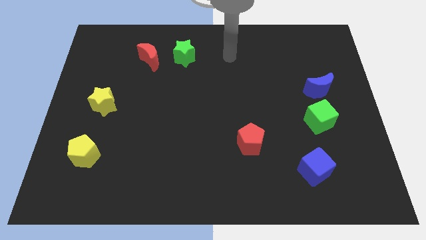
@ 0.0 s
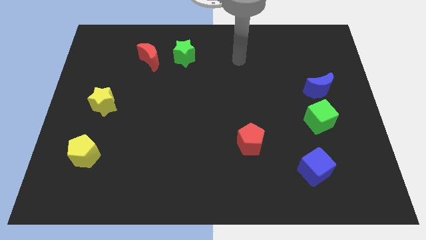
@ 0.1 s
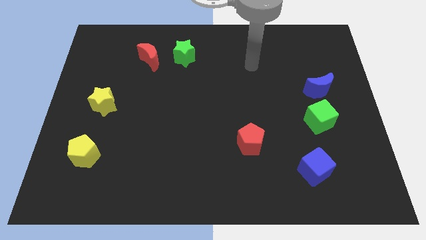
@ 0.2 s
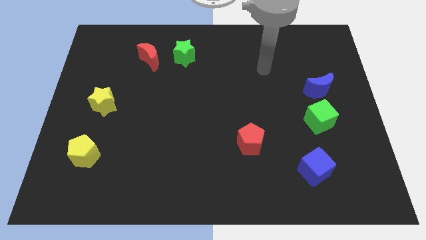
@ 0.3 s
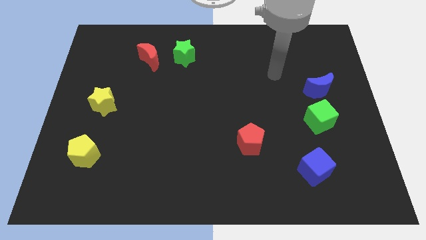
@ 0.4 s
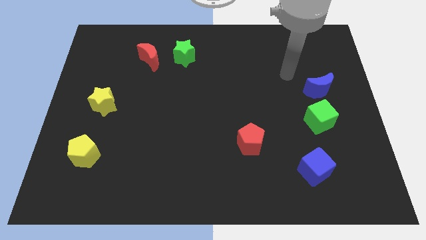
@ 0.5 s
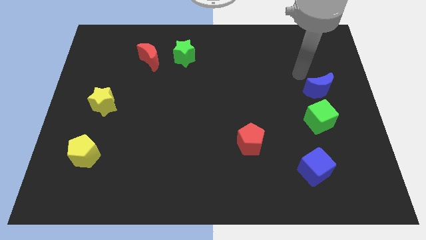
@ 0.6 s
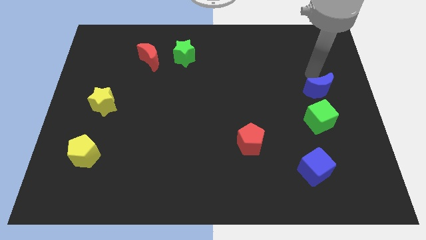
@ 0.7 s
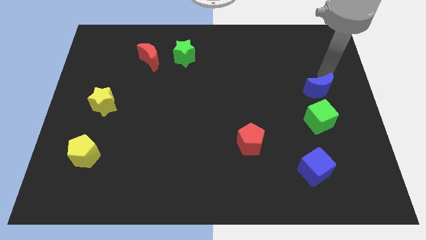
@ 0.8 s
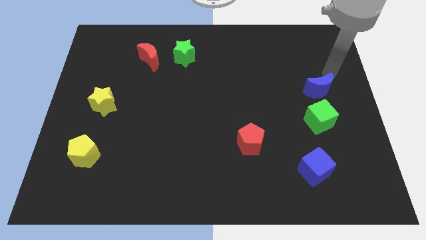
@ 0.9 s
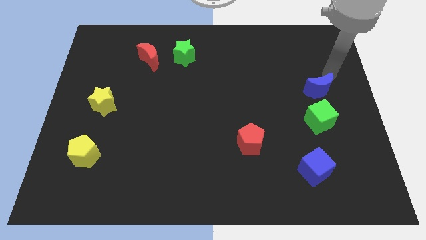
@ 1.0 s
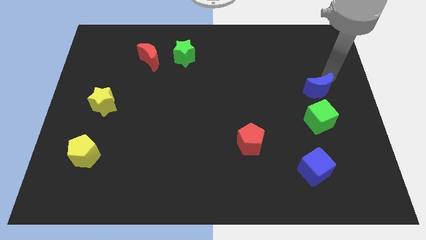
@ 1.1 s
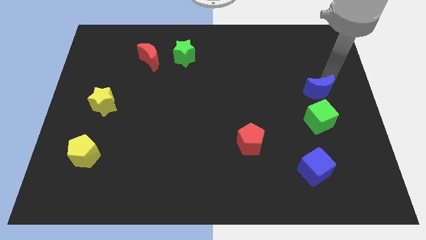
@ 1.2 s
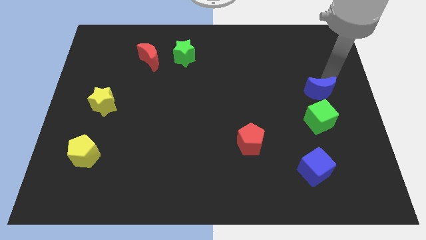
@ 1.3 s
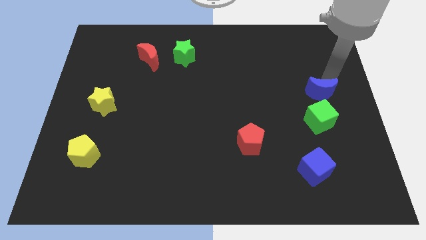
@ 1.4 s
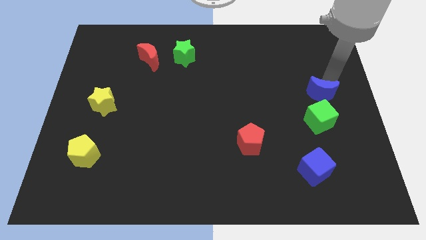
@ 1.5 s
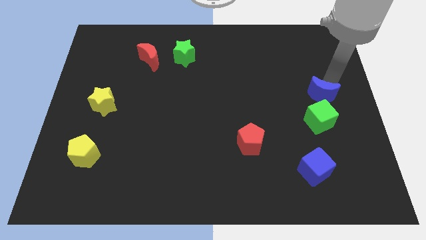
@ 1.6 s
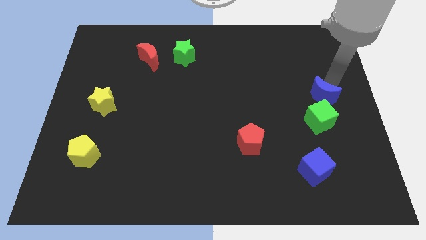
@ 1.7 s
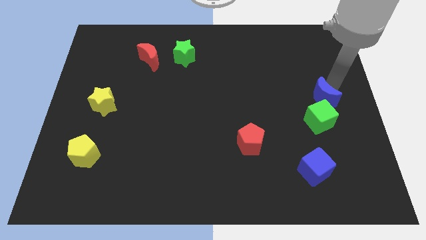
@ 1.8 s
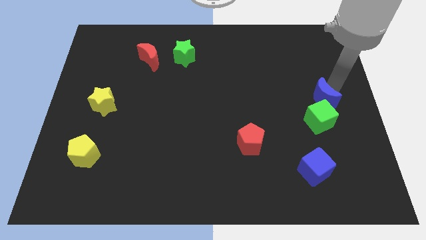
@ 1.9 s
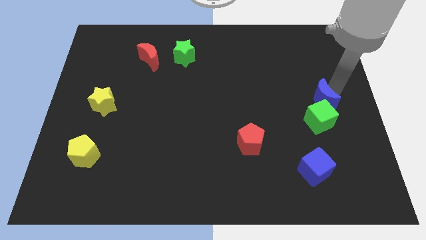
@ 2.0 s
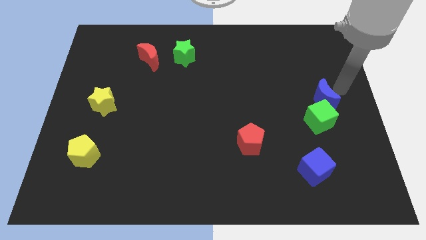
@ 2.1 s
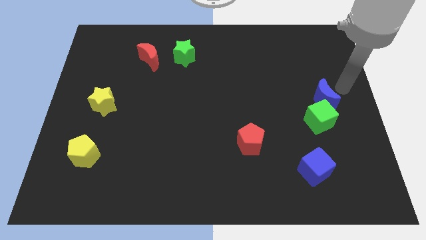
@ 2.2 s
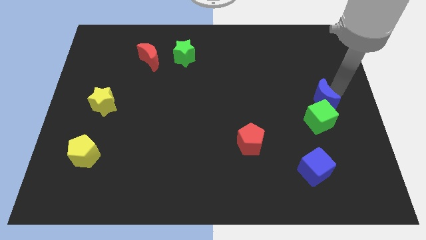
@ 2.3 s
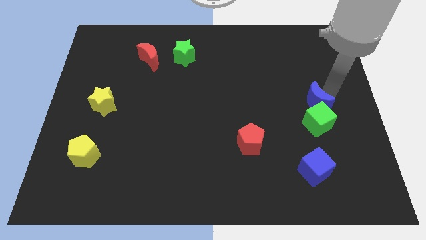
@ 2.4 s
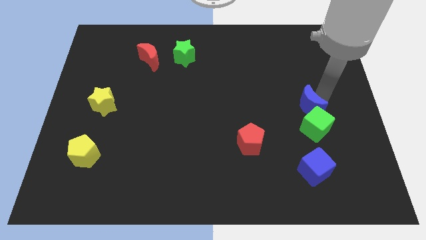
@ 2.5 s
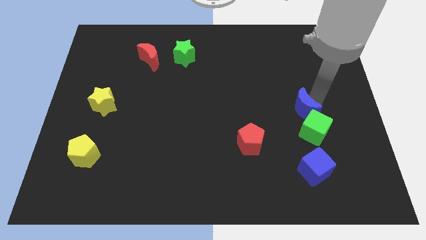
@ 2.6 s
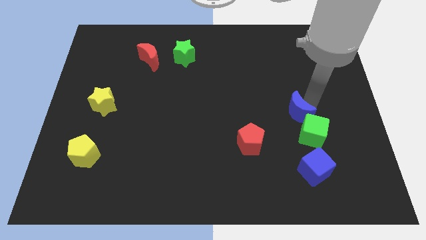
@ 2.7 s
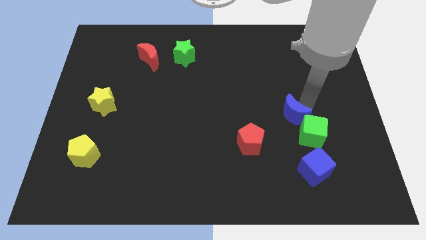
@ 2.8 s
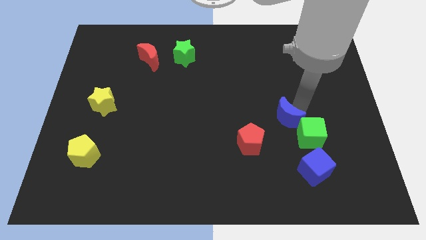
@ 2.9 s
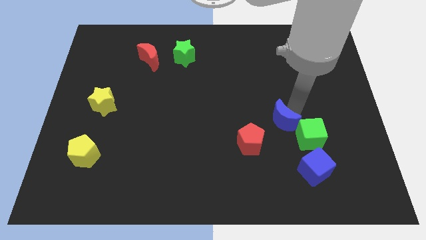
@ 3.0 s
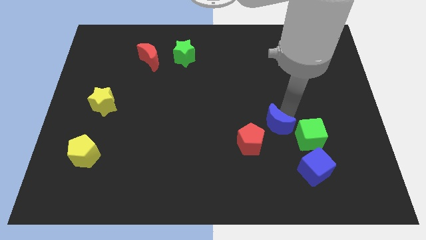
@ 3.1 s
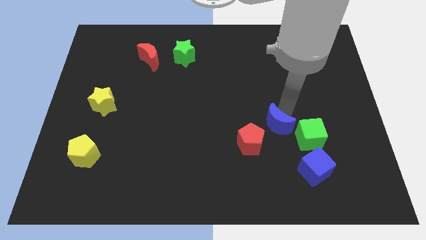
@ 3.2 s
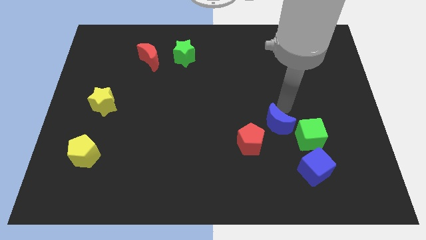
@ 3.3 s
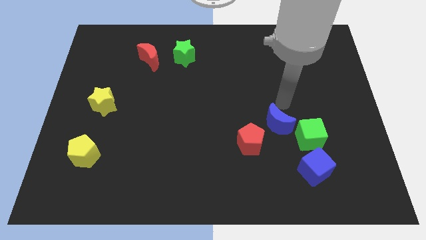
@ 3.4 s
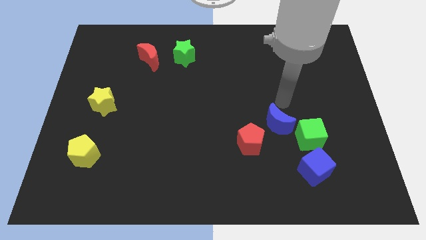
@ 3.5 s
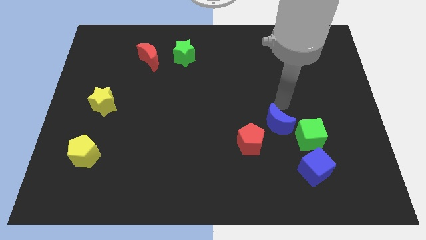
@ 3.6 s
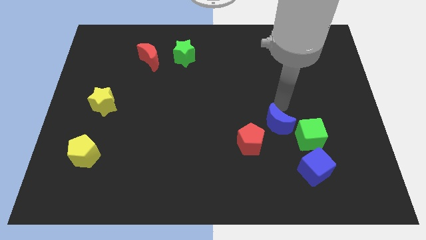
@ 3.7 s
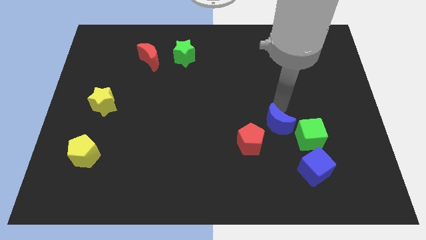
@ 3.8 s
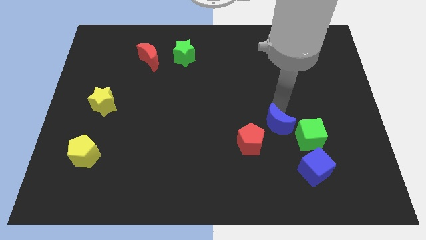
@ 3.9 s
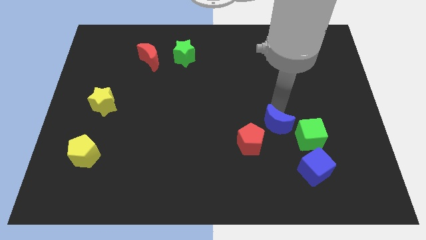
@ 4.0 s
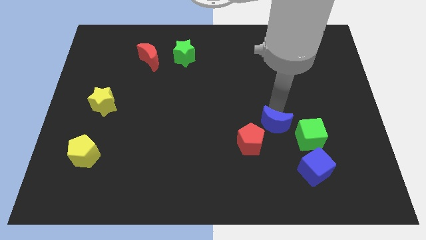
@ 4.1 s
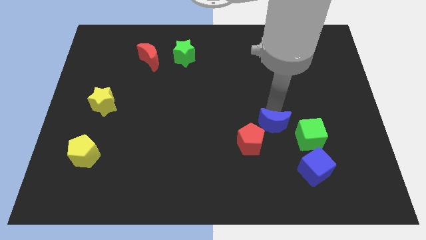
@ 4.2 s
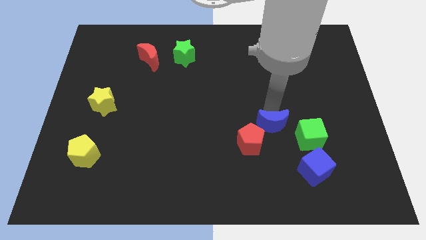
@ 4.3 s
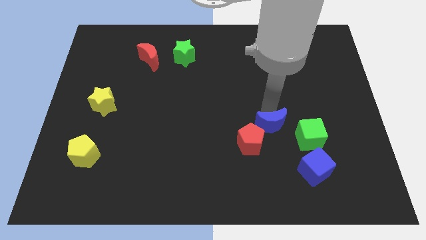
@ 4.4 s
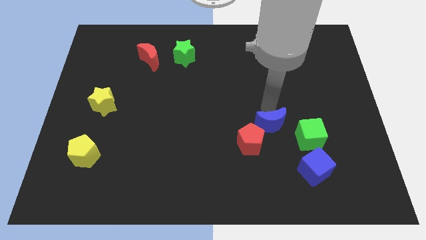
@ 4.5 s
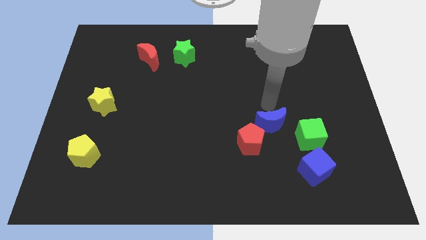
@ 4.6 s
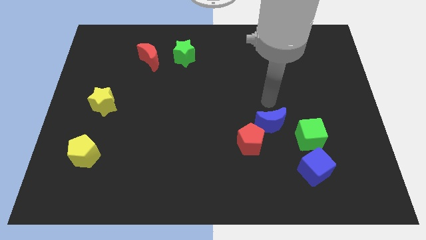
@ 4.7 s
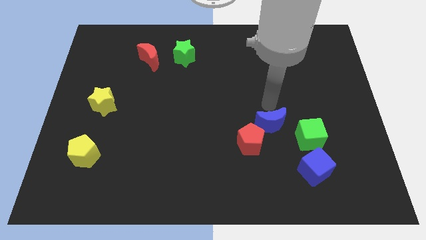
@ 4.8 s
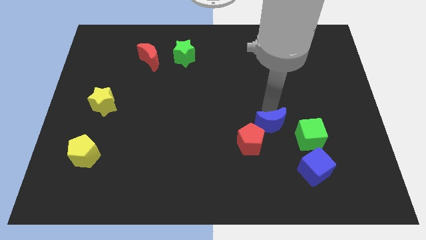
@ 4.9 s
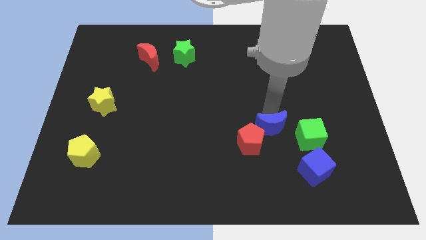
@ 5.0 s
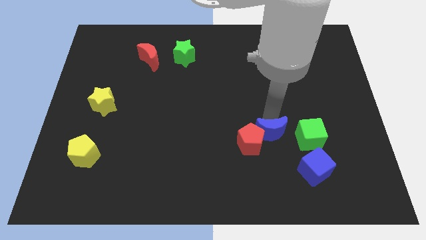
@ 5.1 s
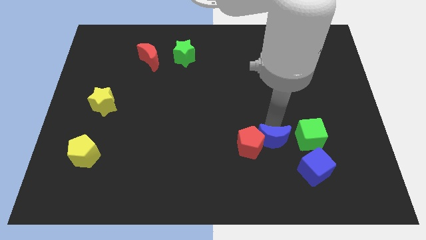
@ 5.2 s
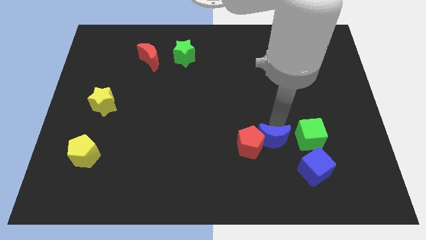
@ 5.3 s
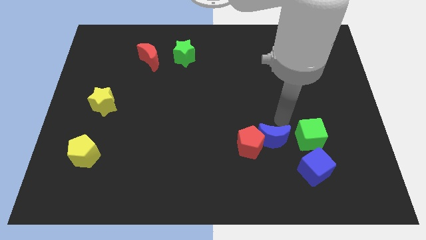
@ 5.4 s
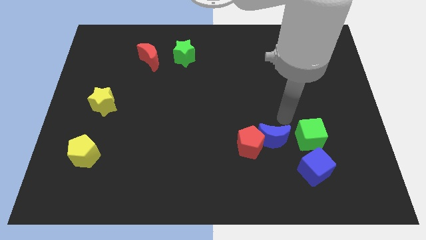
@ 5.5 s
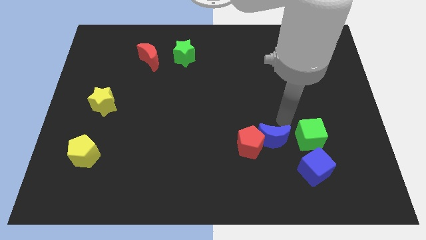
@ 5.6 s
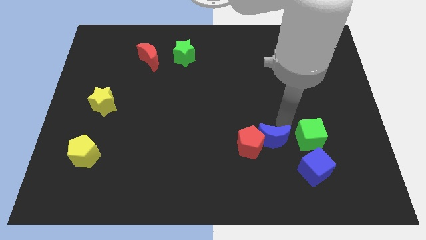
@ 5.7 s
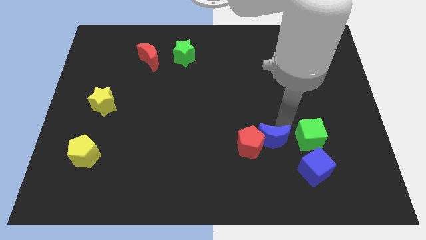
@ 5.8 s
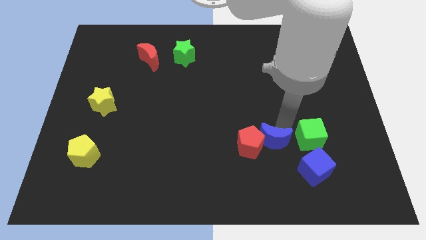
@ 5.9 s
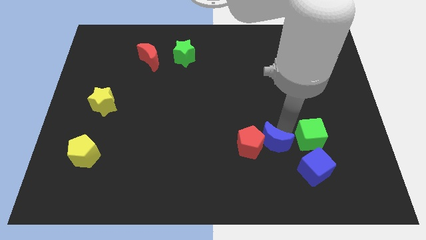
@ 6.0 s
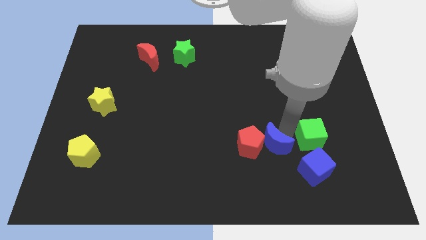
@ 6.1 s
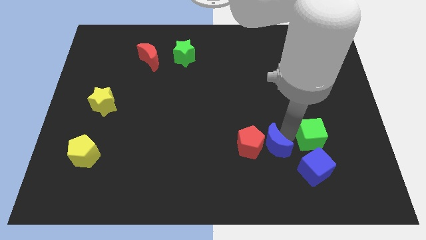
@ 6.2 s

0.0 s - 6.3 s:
push the blue moon down and then to the left

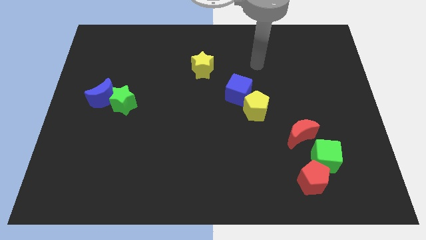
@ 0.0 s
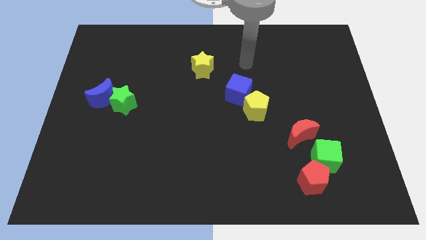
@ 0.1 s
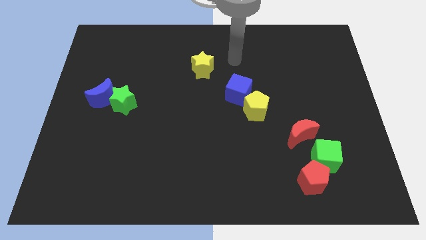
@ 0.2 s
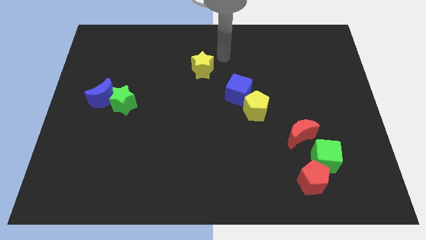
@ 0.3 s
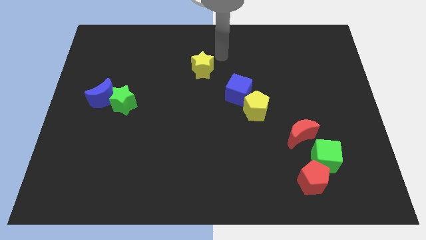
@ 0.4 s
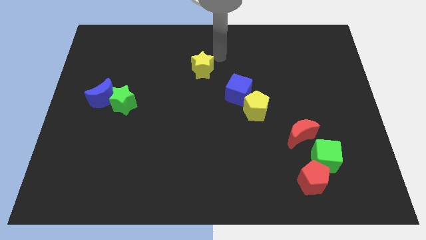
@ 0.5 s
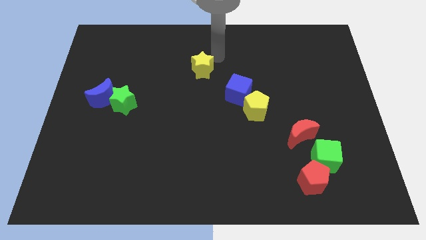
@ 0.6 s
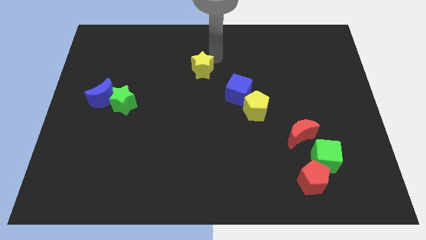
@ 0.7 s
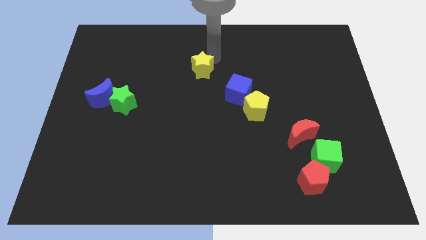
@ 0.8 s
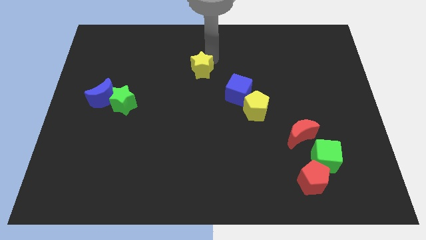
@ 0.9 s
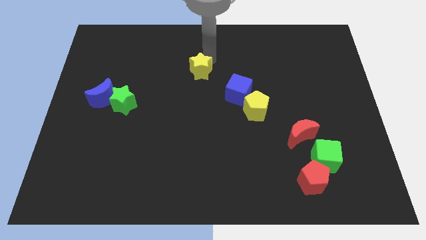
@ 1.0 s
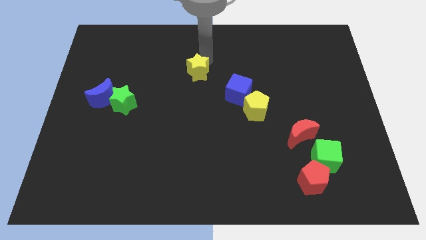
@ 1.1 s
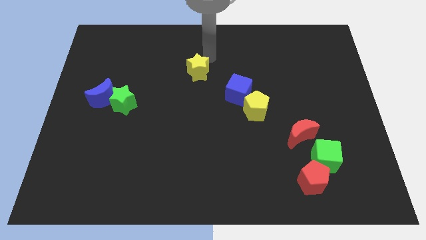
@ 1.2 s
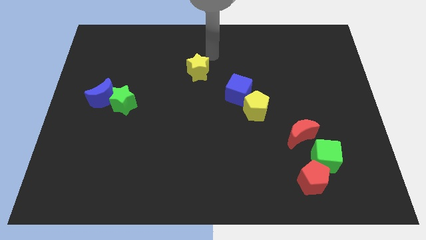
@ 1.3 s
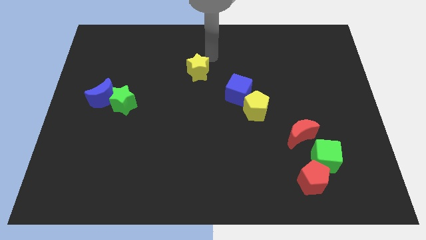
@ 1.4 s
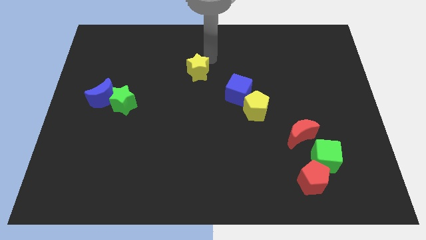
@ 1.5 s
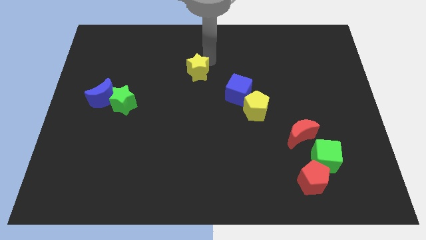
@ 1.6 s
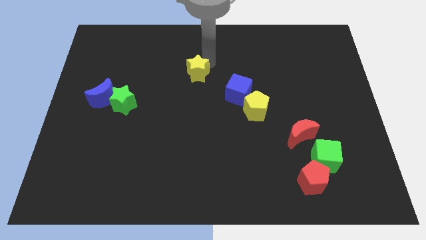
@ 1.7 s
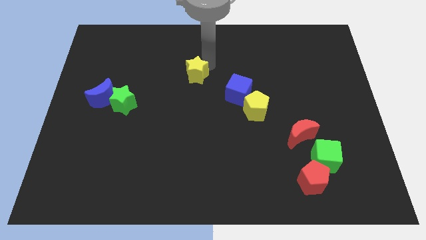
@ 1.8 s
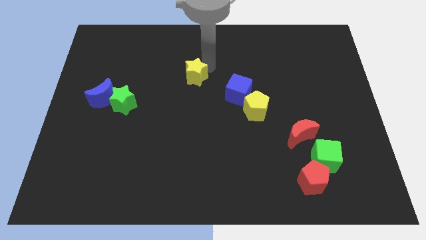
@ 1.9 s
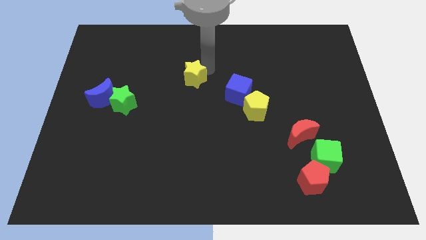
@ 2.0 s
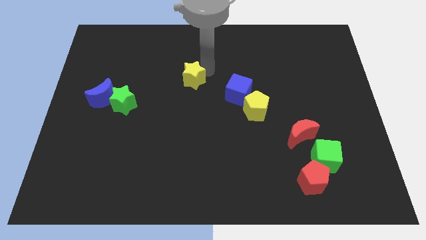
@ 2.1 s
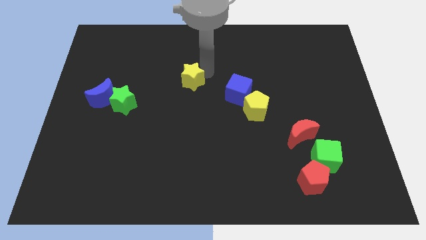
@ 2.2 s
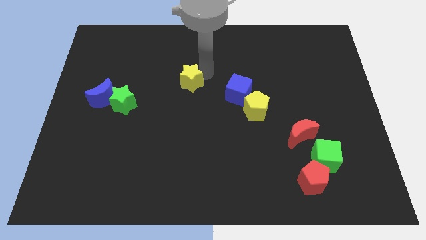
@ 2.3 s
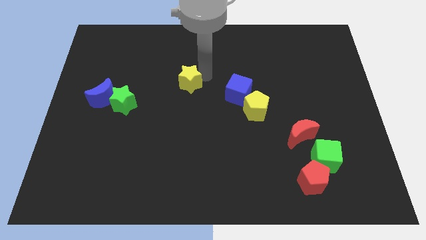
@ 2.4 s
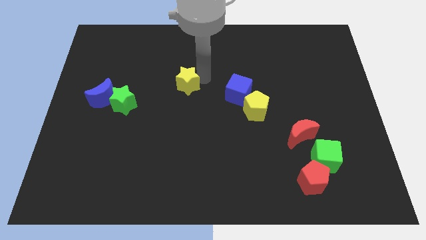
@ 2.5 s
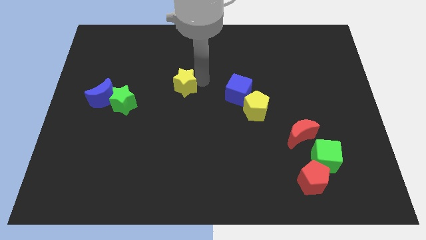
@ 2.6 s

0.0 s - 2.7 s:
push the yellow star down and to the left slightly
